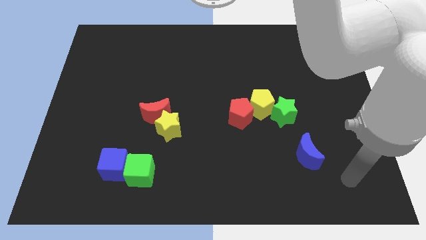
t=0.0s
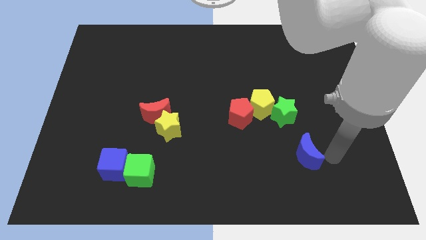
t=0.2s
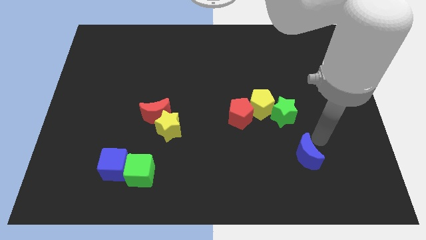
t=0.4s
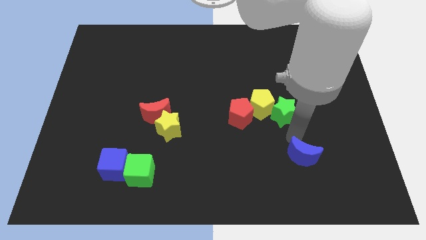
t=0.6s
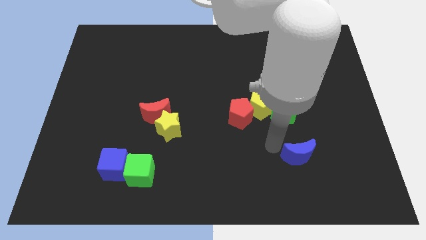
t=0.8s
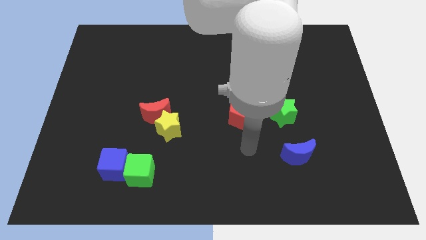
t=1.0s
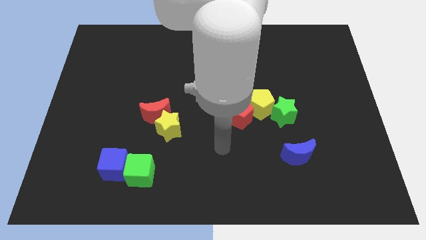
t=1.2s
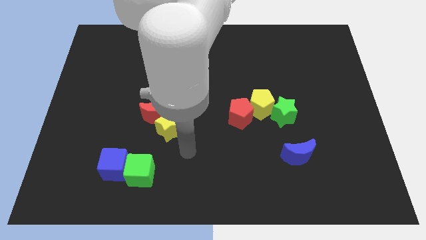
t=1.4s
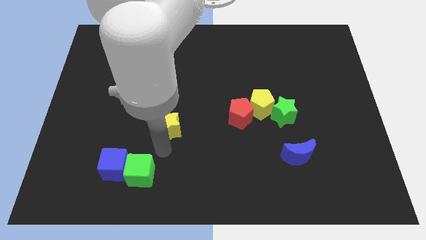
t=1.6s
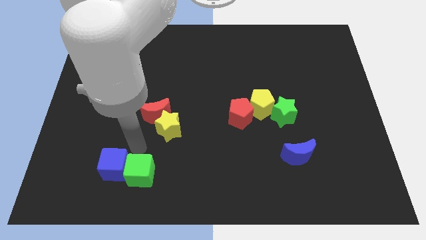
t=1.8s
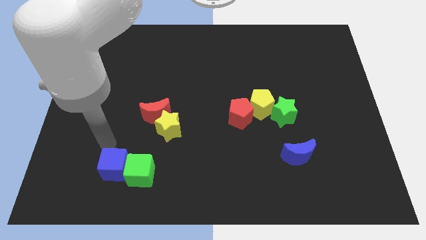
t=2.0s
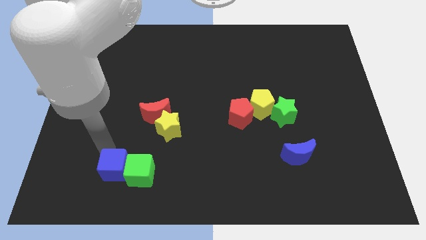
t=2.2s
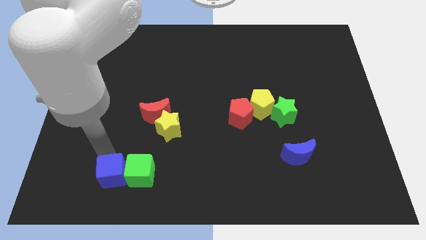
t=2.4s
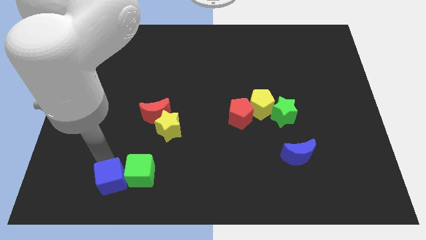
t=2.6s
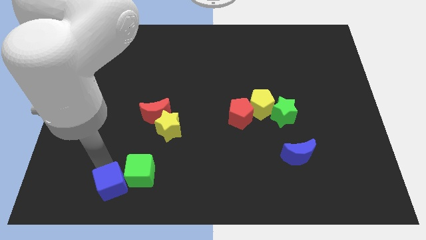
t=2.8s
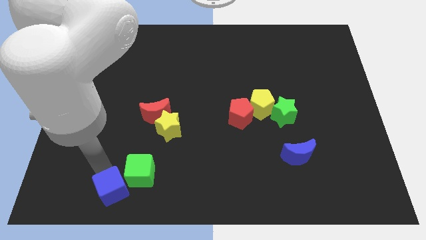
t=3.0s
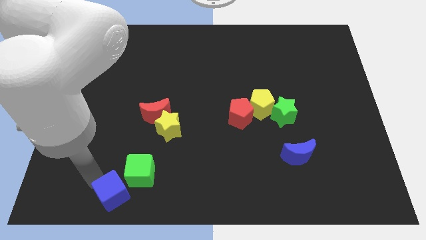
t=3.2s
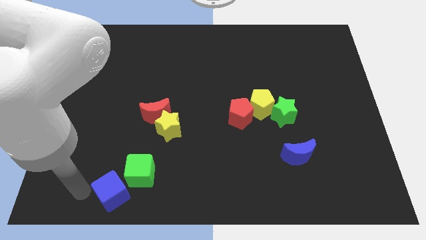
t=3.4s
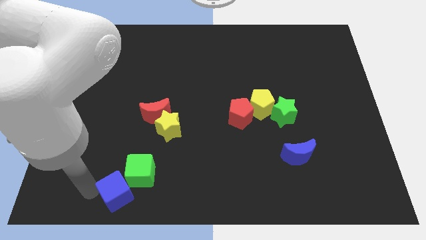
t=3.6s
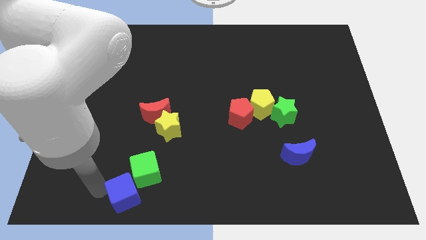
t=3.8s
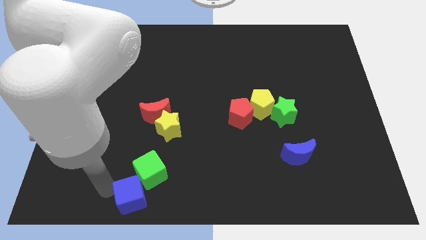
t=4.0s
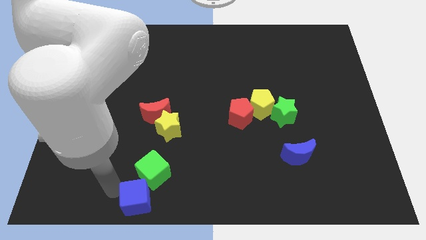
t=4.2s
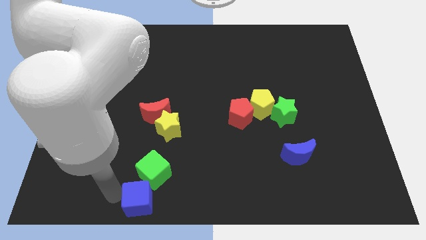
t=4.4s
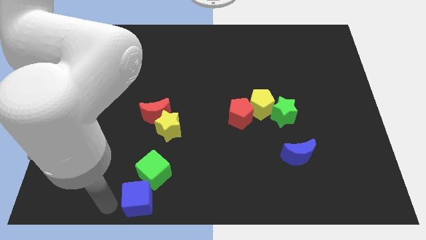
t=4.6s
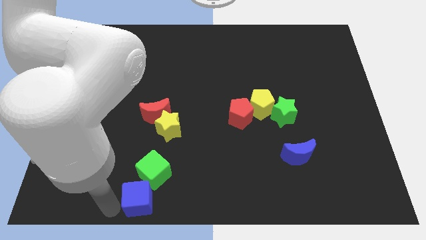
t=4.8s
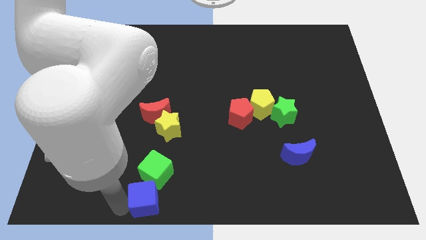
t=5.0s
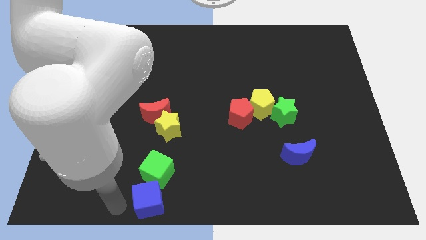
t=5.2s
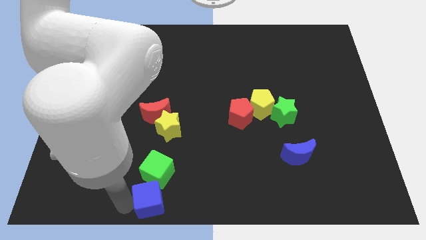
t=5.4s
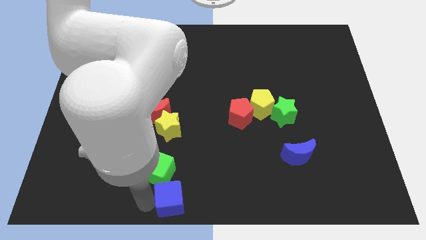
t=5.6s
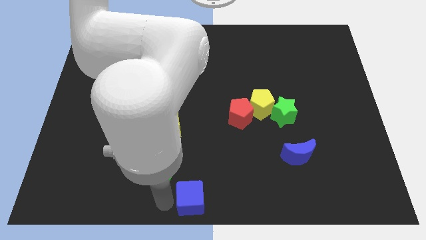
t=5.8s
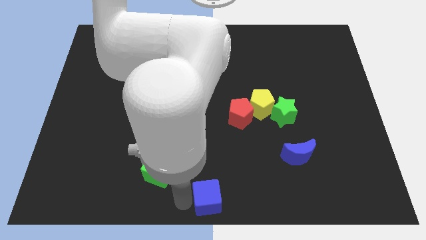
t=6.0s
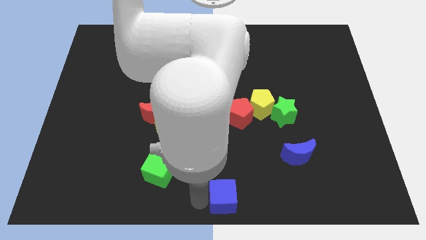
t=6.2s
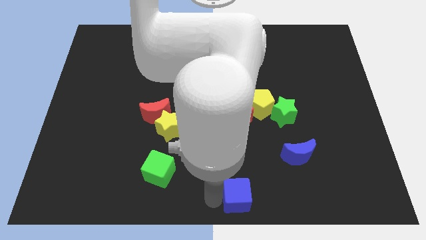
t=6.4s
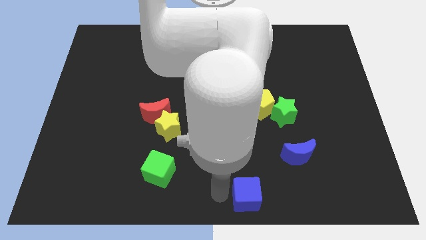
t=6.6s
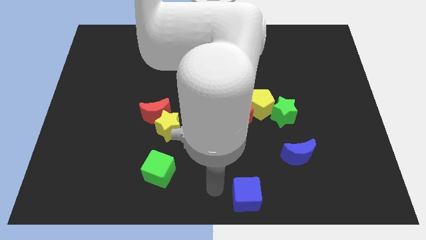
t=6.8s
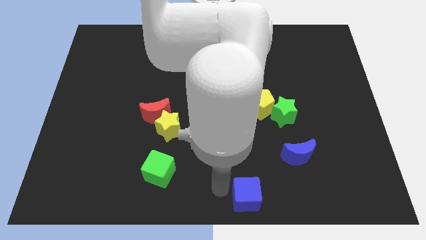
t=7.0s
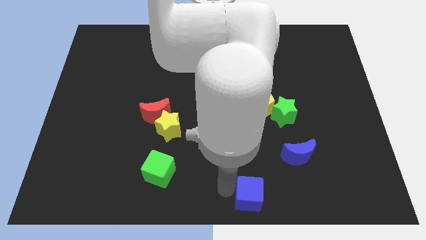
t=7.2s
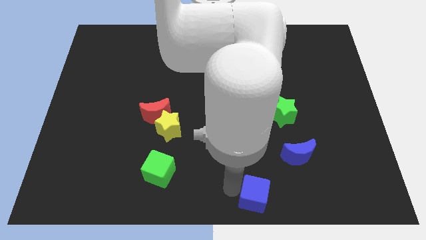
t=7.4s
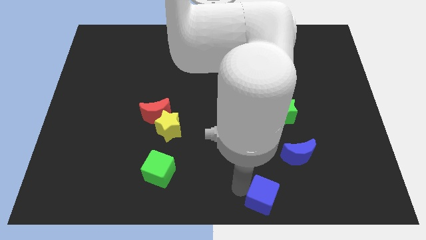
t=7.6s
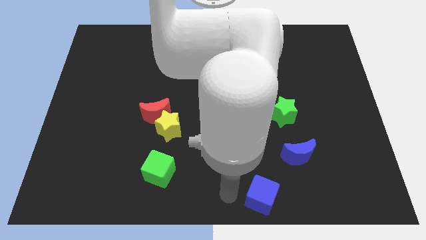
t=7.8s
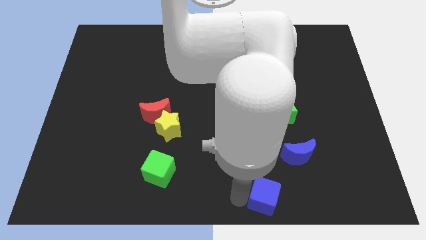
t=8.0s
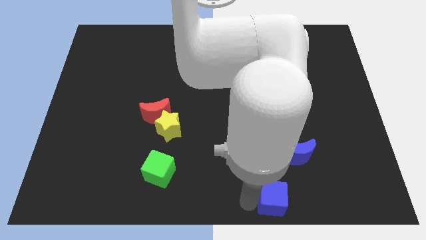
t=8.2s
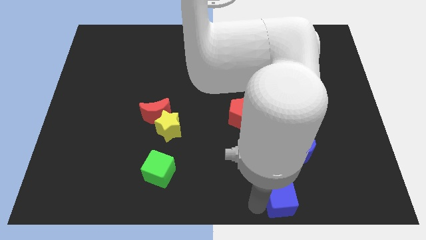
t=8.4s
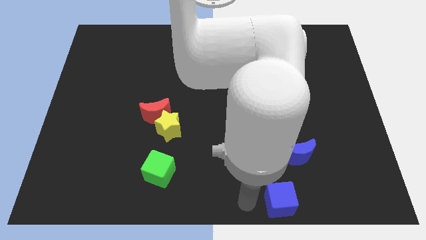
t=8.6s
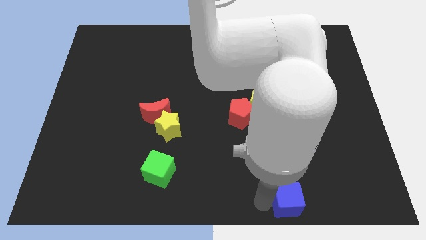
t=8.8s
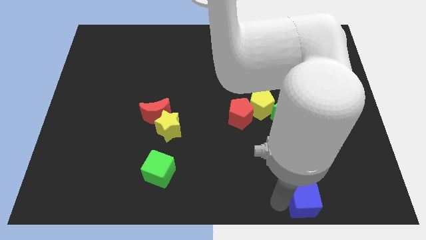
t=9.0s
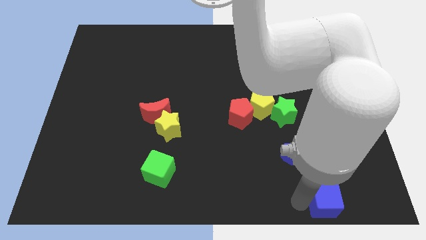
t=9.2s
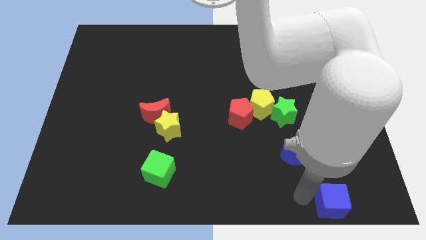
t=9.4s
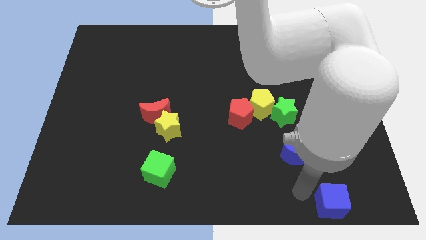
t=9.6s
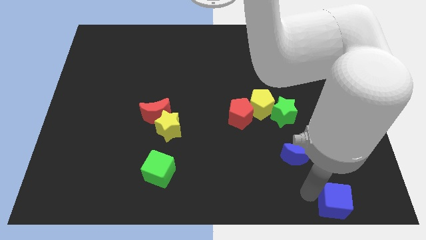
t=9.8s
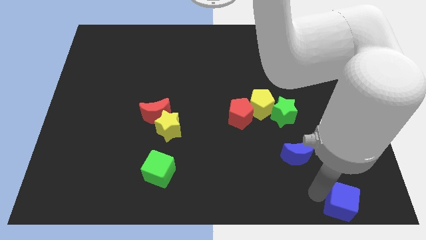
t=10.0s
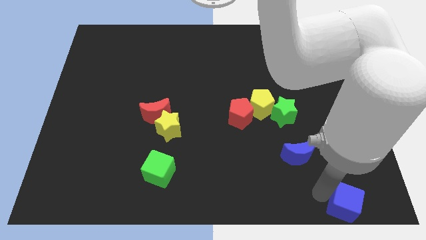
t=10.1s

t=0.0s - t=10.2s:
put the blue cube to the bottom right of the board

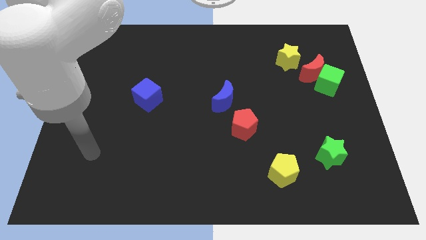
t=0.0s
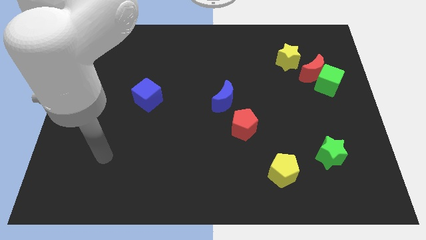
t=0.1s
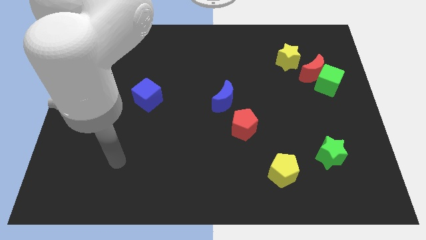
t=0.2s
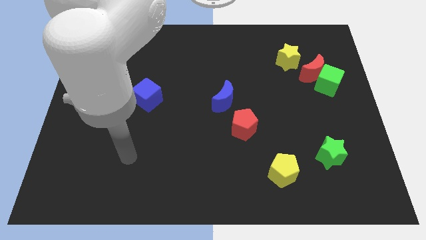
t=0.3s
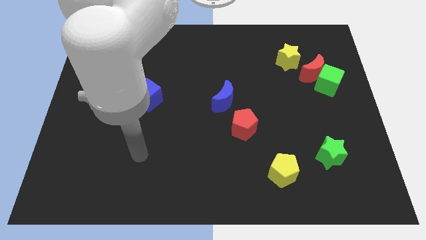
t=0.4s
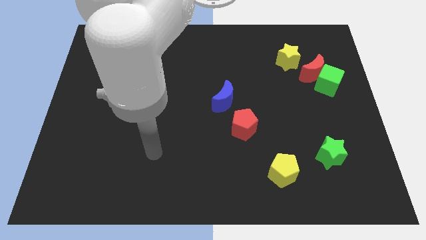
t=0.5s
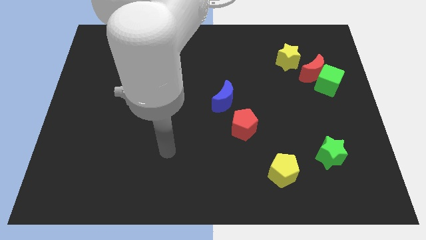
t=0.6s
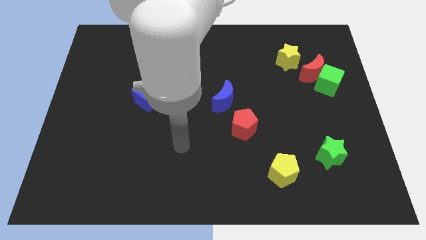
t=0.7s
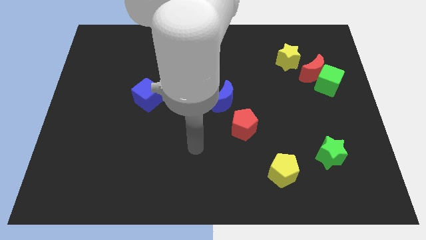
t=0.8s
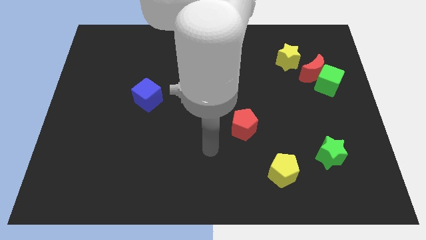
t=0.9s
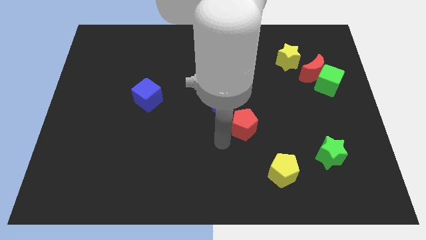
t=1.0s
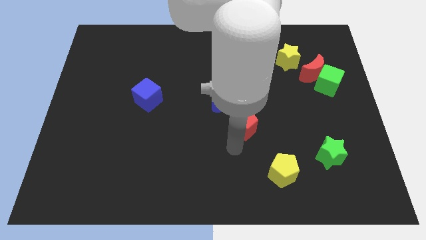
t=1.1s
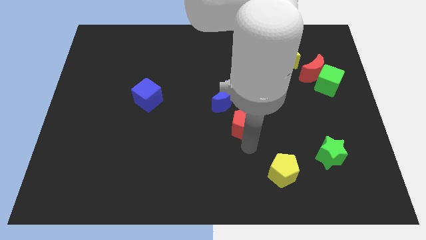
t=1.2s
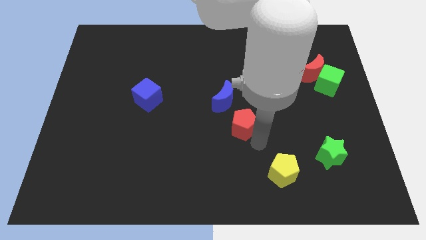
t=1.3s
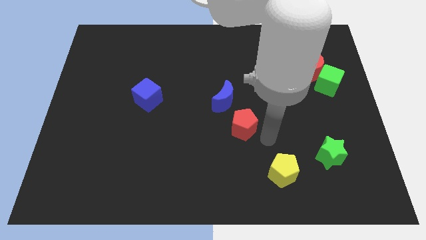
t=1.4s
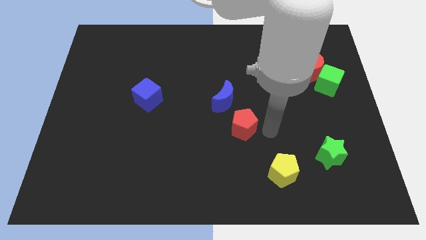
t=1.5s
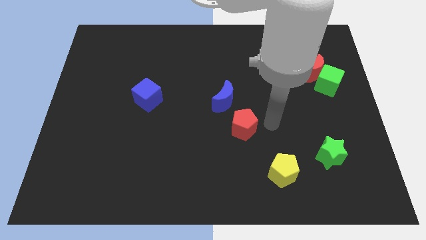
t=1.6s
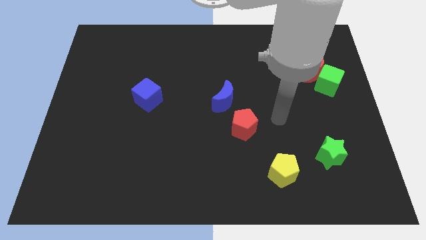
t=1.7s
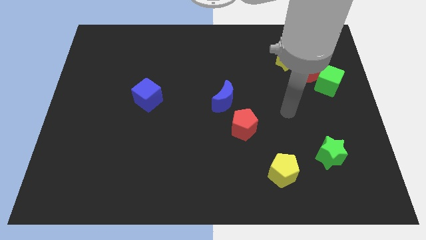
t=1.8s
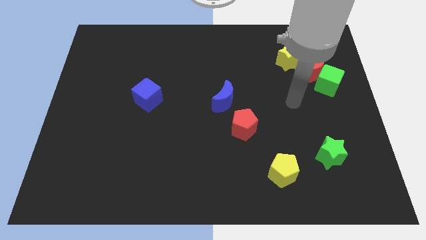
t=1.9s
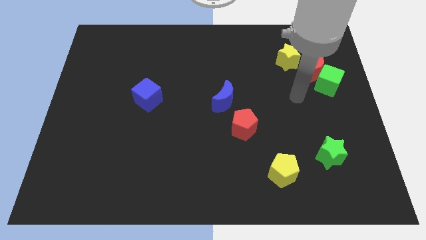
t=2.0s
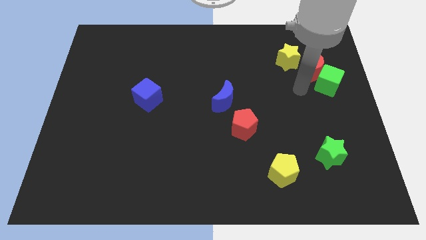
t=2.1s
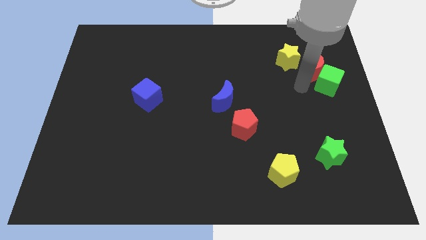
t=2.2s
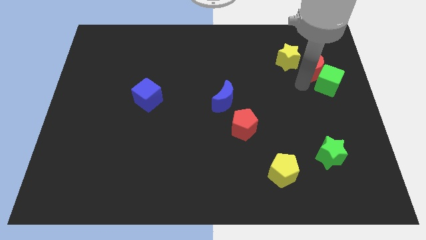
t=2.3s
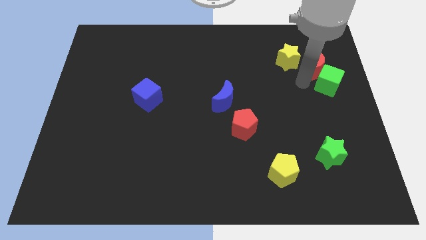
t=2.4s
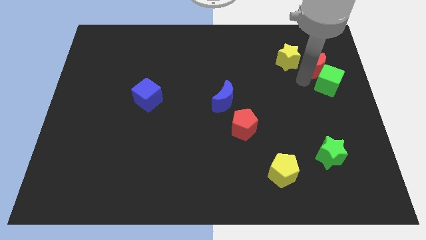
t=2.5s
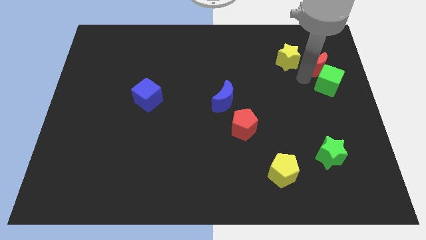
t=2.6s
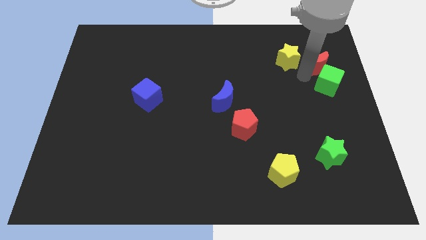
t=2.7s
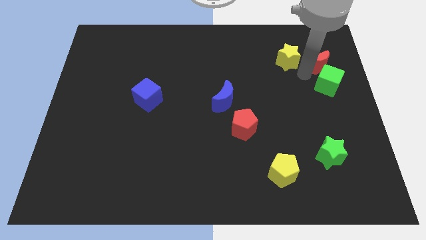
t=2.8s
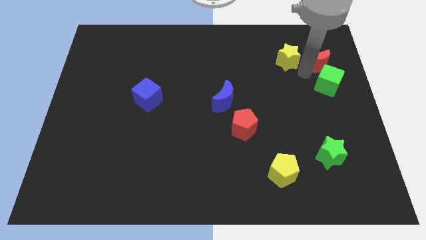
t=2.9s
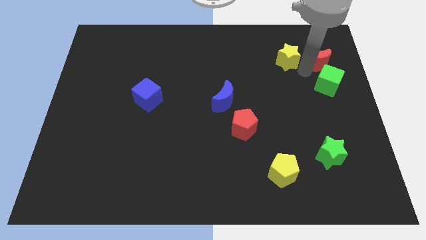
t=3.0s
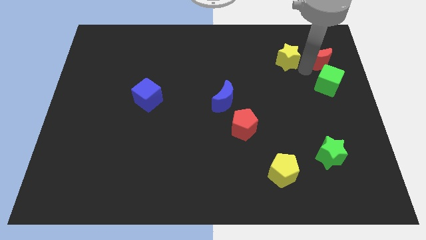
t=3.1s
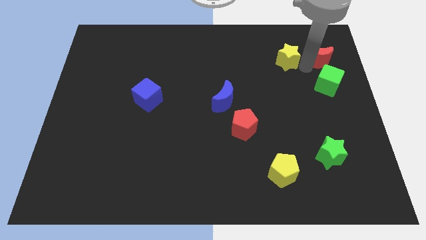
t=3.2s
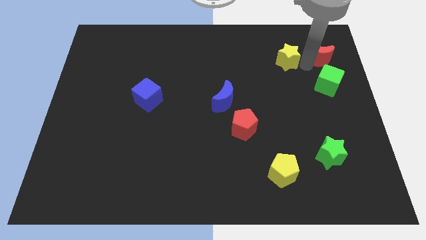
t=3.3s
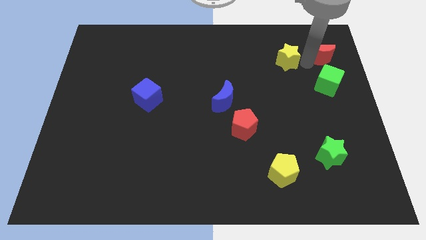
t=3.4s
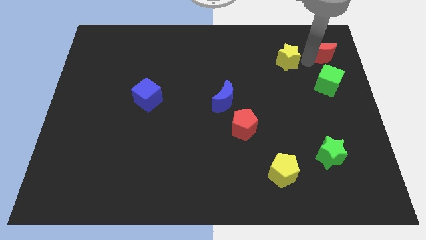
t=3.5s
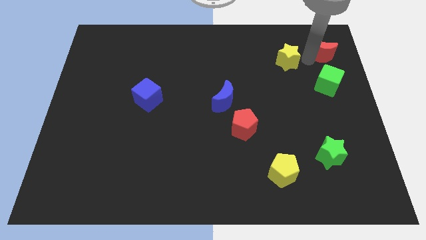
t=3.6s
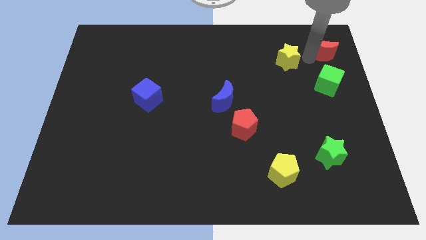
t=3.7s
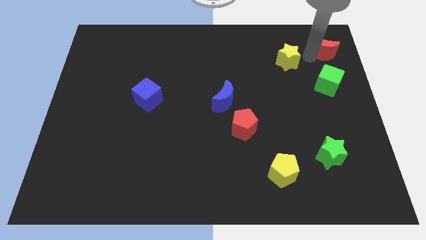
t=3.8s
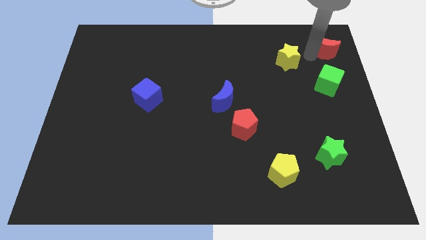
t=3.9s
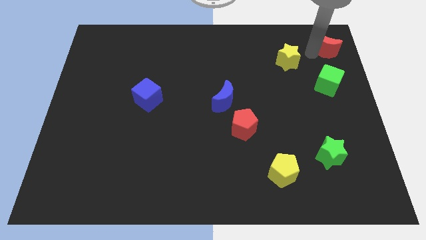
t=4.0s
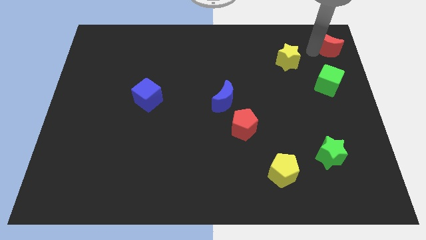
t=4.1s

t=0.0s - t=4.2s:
slide the red moon to the top right
